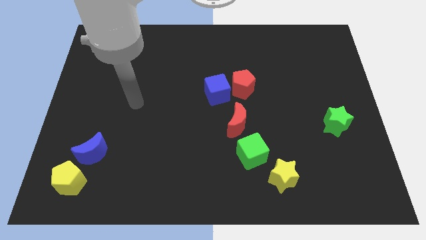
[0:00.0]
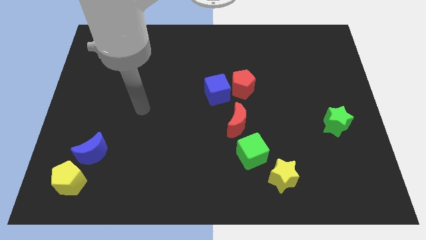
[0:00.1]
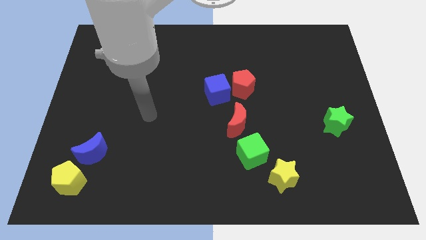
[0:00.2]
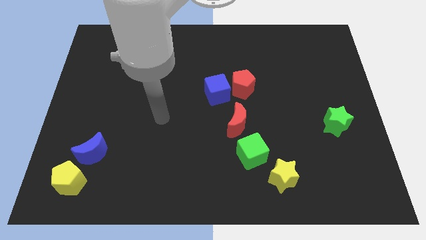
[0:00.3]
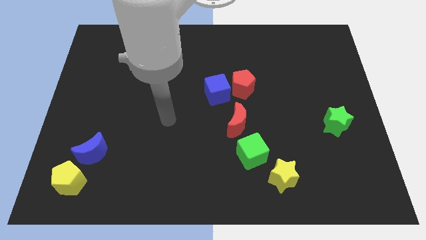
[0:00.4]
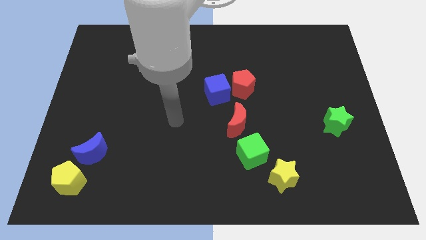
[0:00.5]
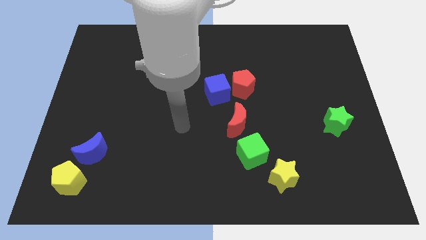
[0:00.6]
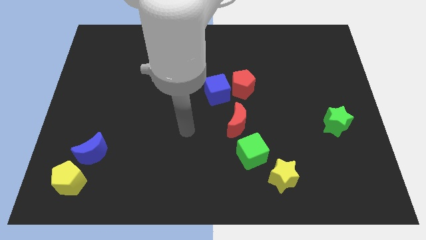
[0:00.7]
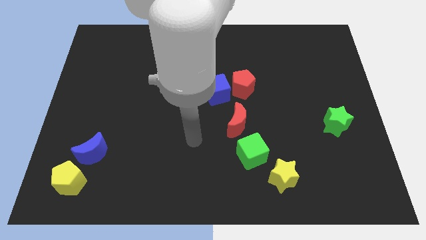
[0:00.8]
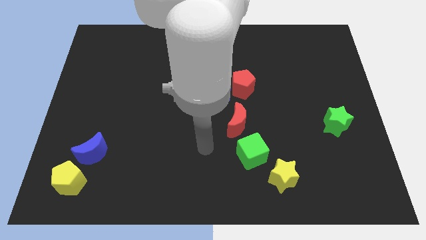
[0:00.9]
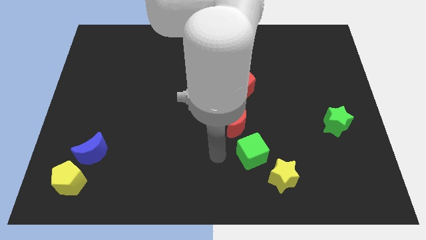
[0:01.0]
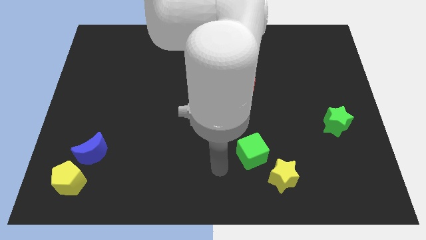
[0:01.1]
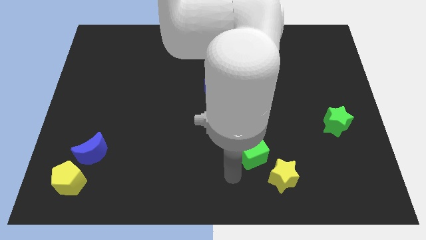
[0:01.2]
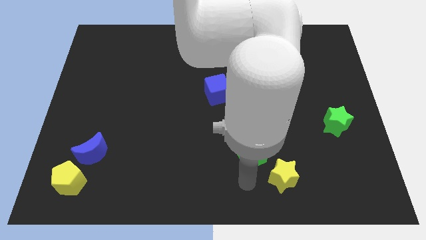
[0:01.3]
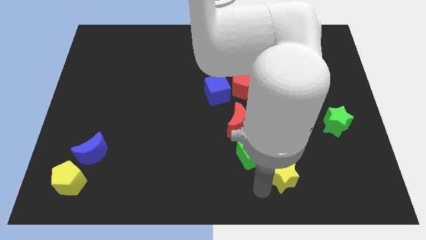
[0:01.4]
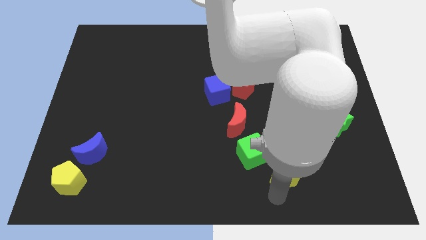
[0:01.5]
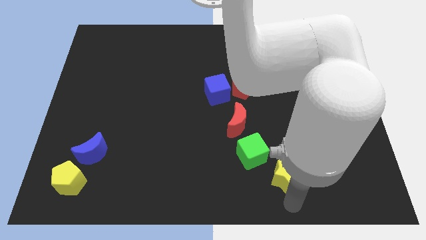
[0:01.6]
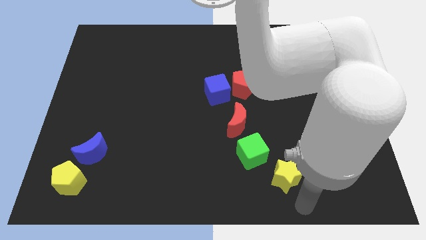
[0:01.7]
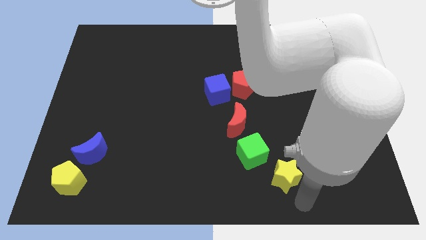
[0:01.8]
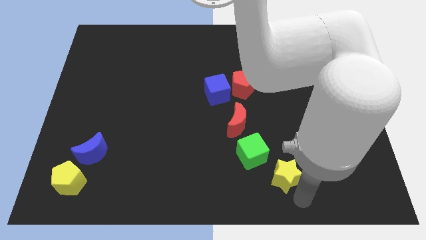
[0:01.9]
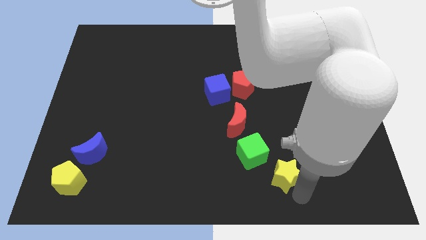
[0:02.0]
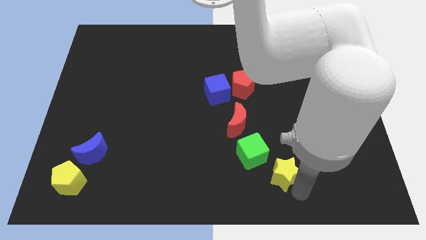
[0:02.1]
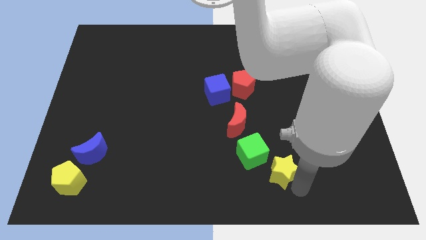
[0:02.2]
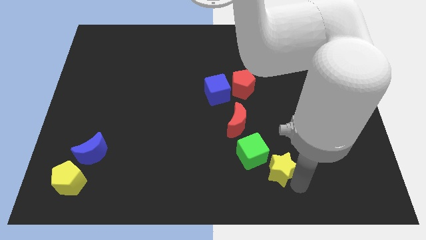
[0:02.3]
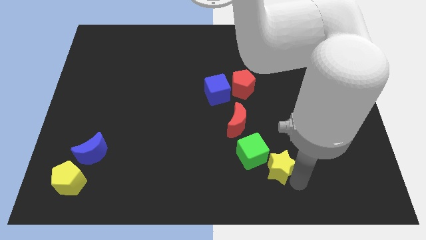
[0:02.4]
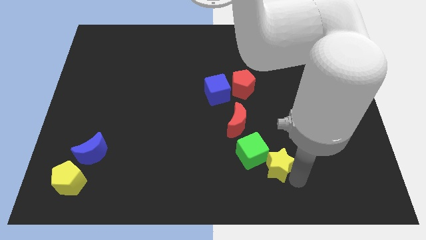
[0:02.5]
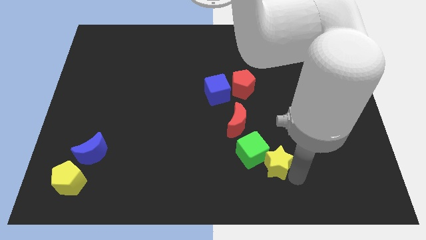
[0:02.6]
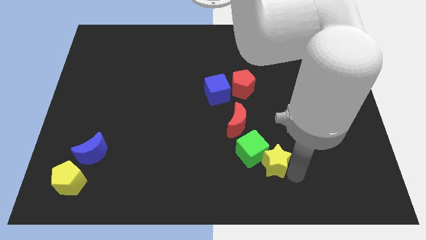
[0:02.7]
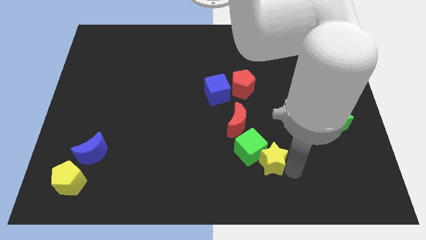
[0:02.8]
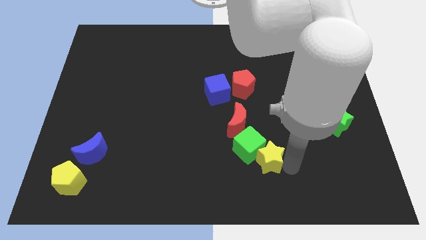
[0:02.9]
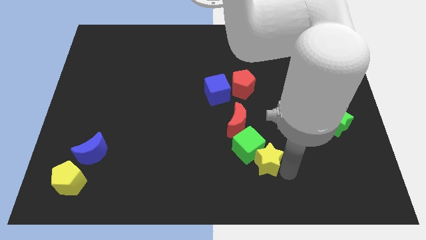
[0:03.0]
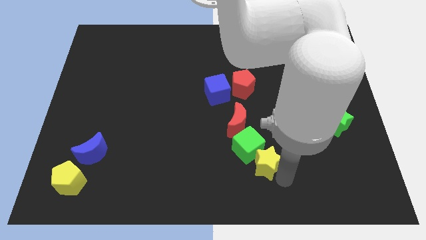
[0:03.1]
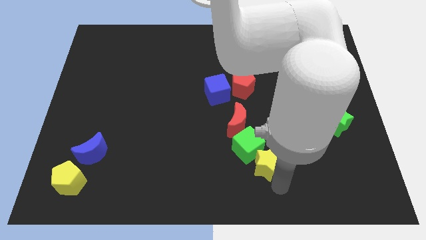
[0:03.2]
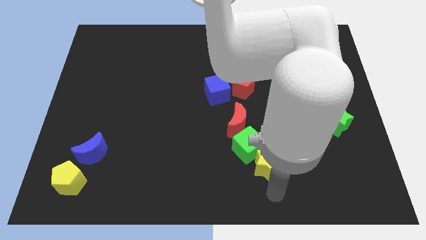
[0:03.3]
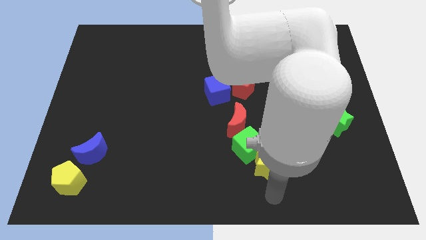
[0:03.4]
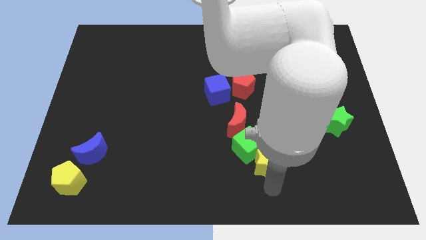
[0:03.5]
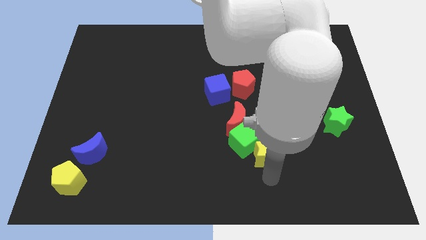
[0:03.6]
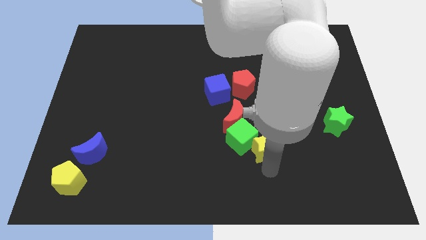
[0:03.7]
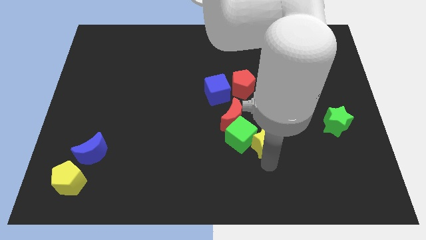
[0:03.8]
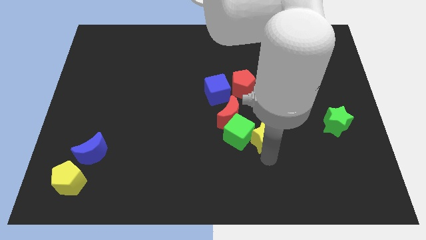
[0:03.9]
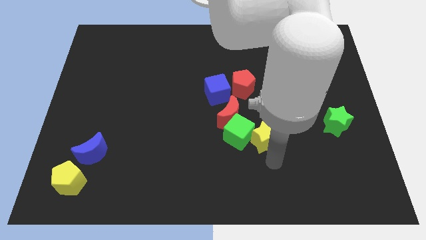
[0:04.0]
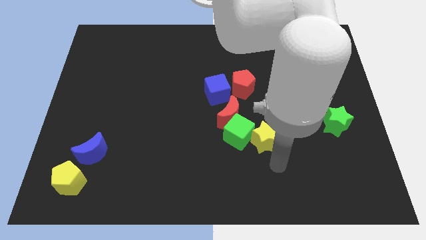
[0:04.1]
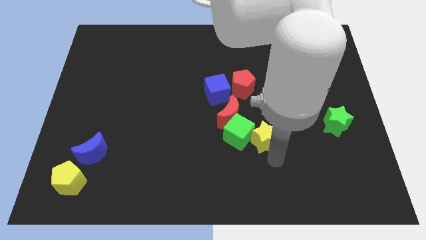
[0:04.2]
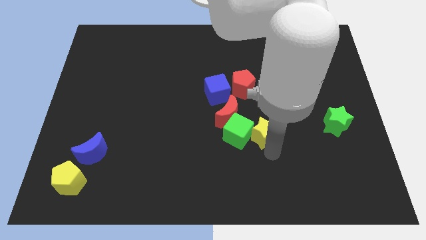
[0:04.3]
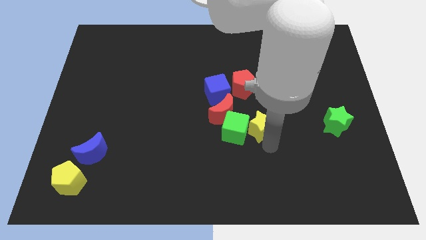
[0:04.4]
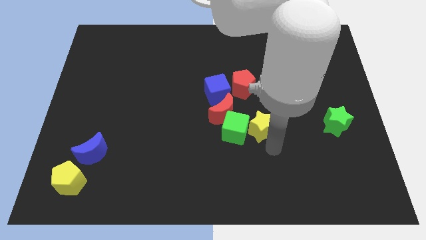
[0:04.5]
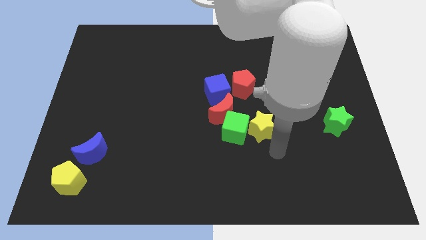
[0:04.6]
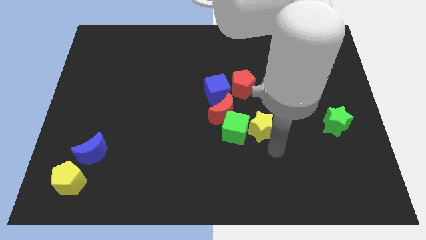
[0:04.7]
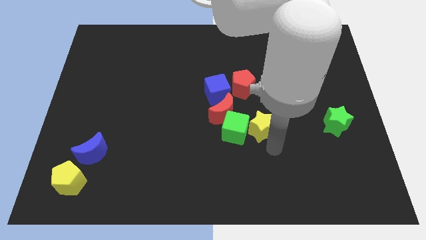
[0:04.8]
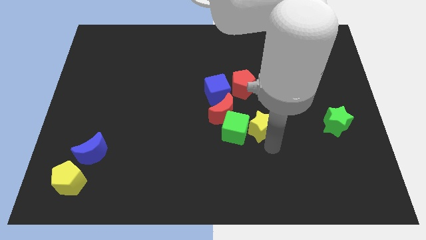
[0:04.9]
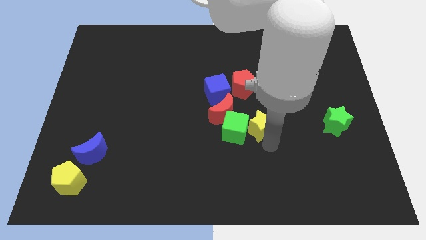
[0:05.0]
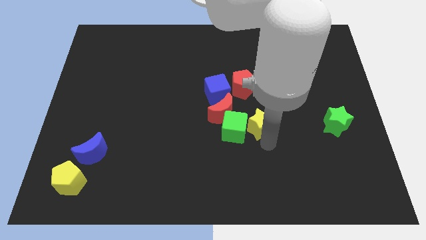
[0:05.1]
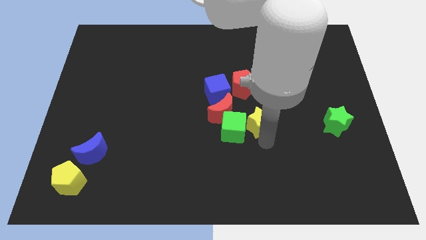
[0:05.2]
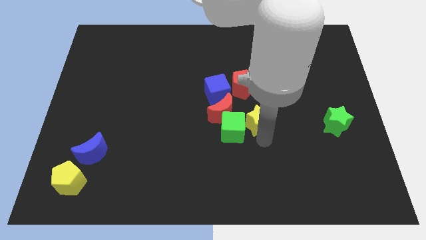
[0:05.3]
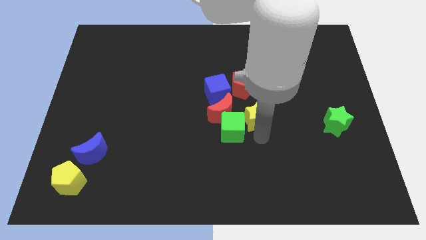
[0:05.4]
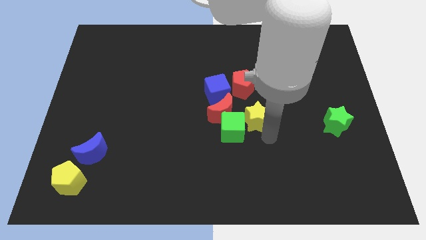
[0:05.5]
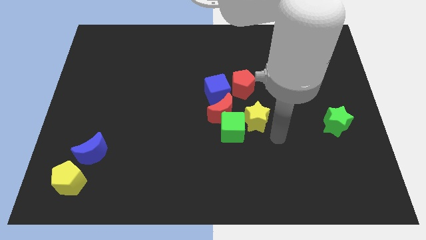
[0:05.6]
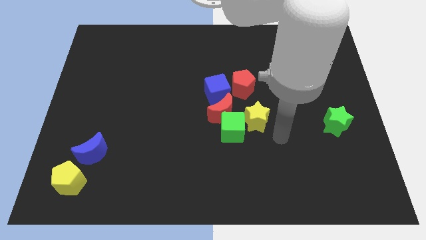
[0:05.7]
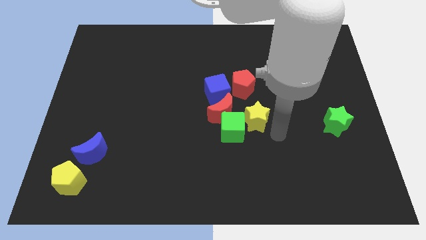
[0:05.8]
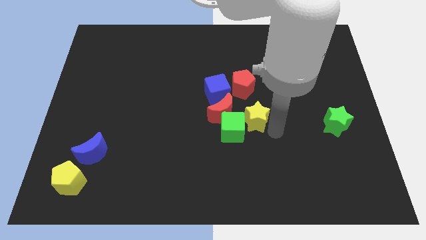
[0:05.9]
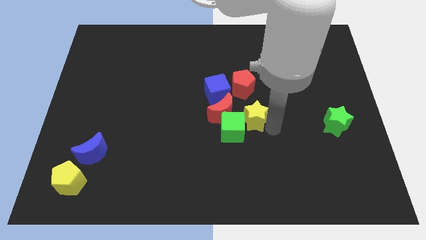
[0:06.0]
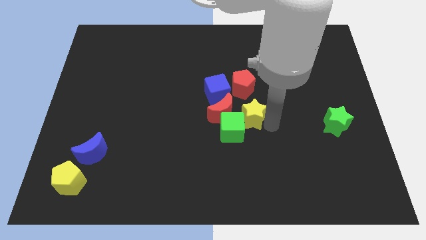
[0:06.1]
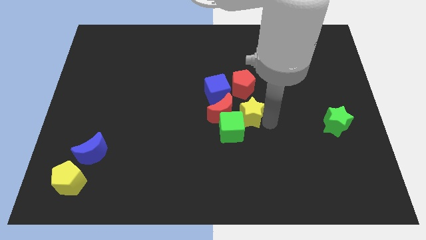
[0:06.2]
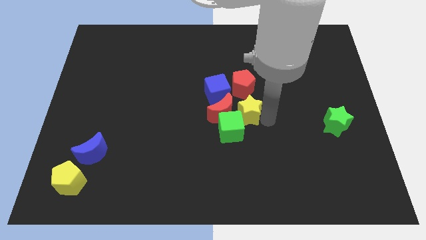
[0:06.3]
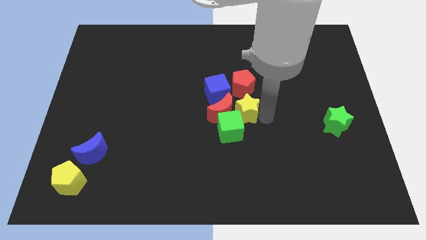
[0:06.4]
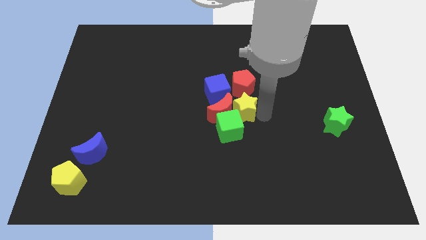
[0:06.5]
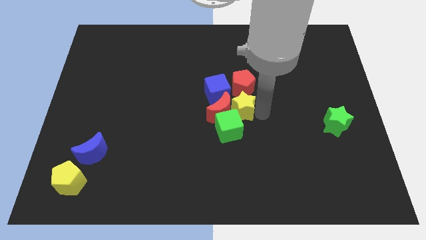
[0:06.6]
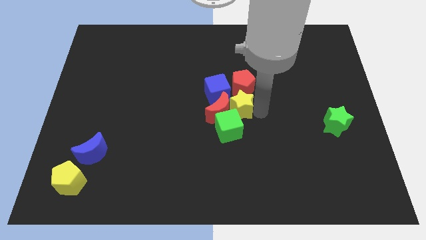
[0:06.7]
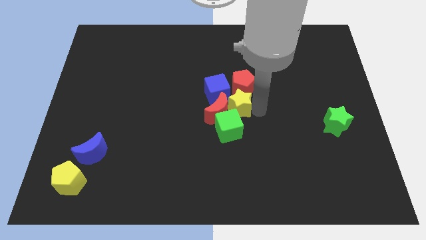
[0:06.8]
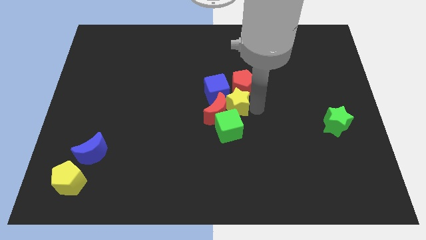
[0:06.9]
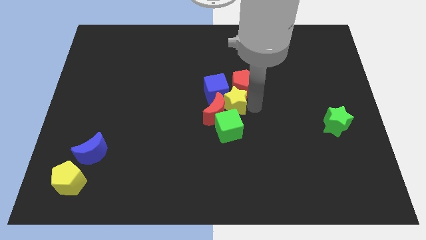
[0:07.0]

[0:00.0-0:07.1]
push the yellow star next to the blue cube

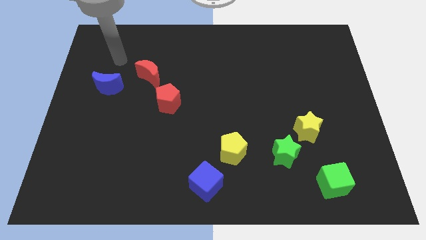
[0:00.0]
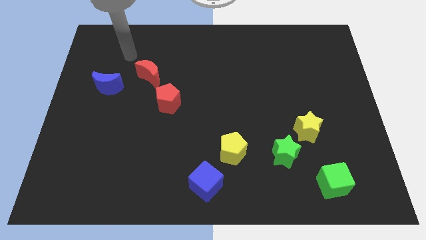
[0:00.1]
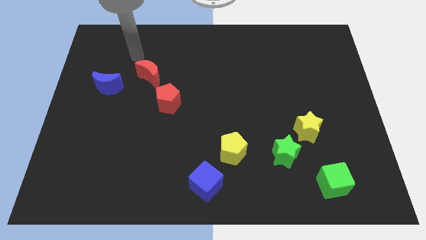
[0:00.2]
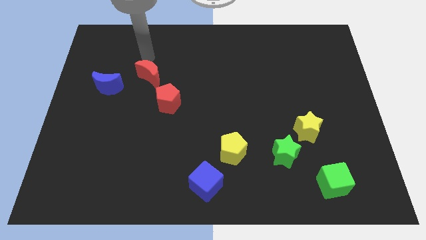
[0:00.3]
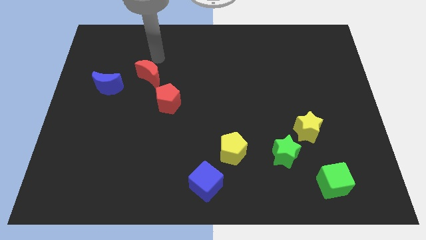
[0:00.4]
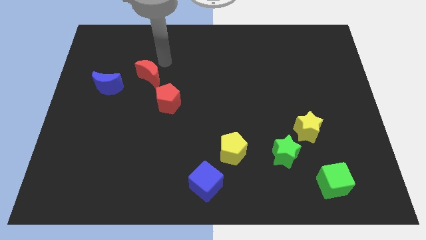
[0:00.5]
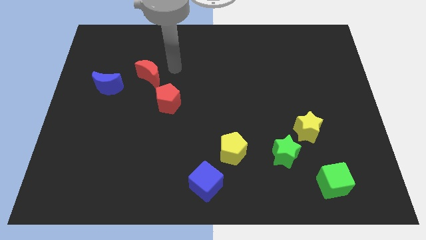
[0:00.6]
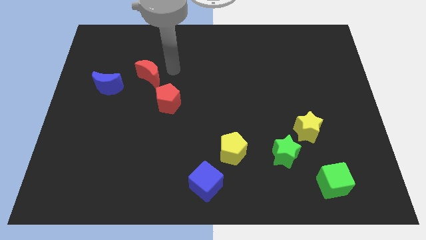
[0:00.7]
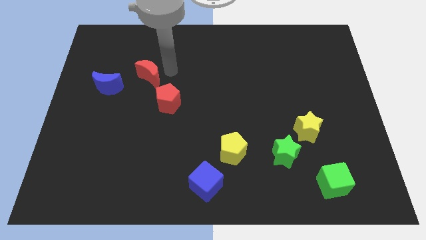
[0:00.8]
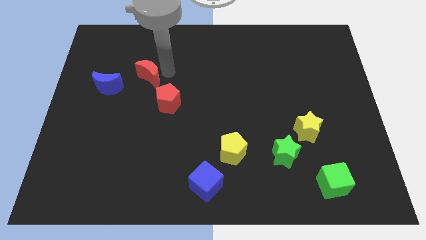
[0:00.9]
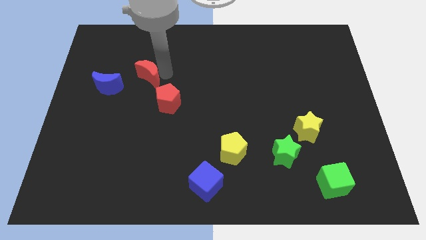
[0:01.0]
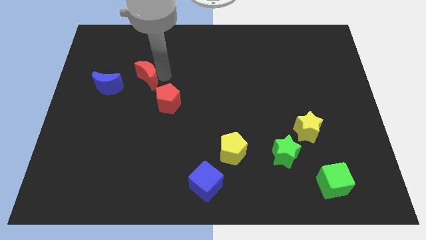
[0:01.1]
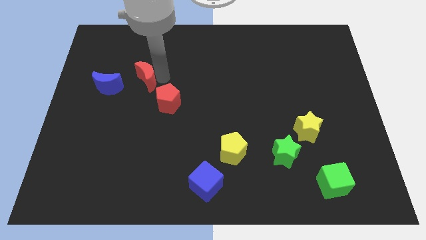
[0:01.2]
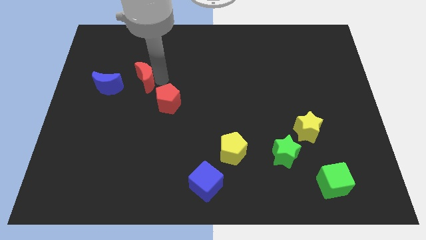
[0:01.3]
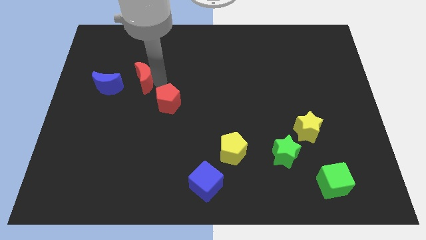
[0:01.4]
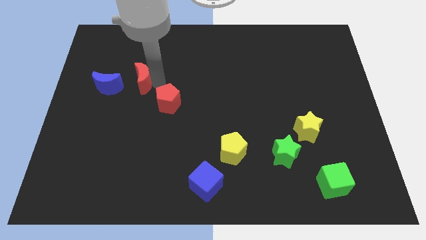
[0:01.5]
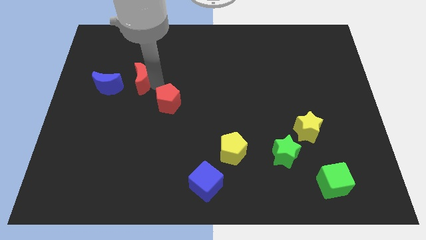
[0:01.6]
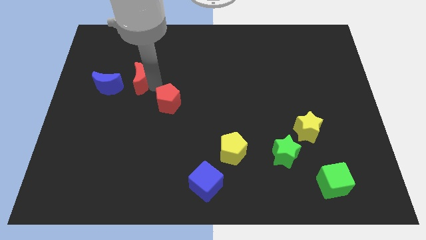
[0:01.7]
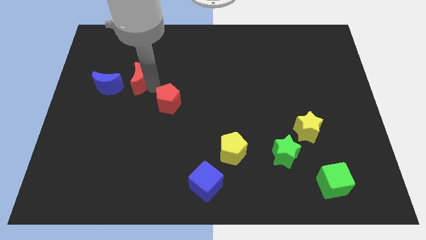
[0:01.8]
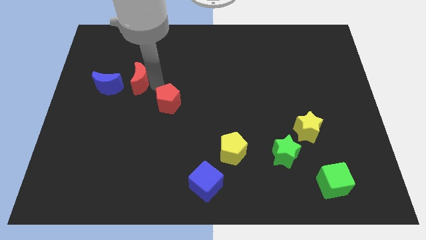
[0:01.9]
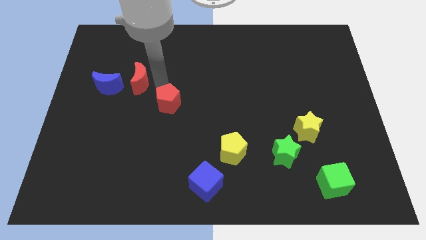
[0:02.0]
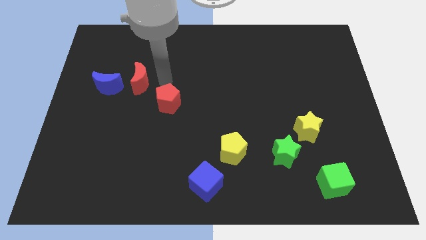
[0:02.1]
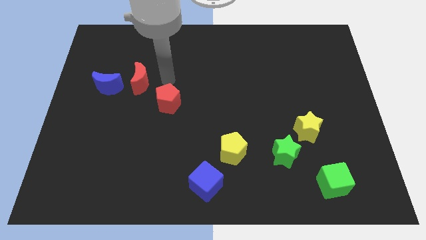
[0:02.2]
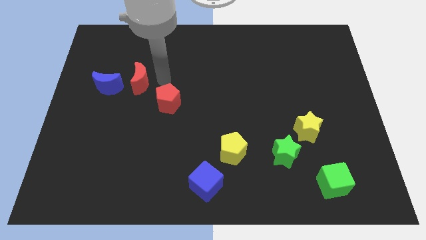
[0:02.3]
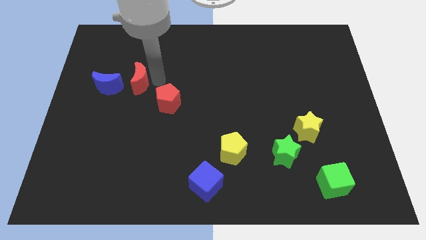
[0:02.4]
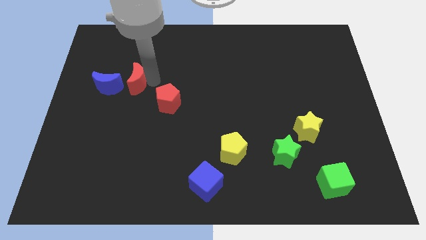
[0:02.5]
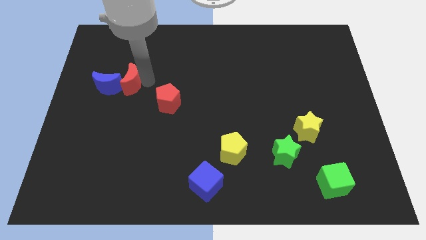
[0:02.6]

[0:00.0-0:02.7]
put the red moon to the blue moon
